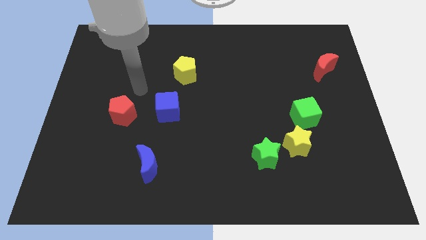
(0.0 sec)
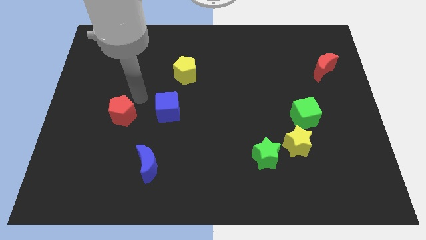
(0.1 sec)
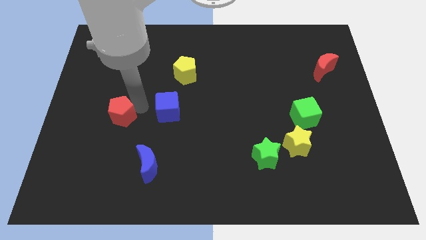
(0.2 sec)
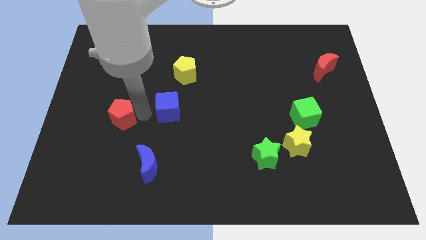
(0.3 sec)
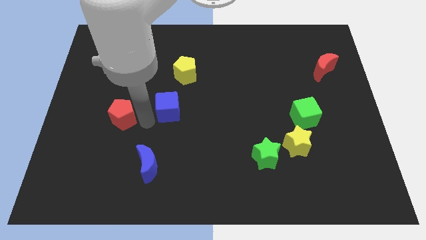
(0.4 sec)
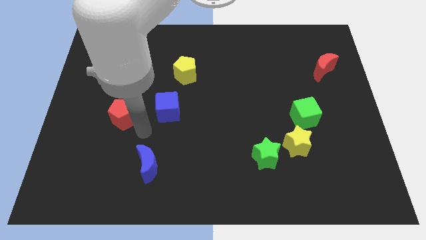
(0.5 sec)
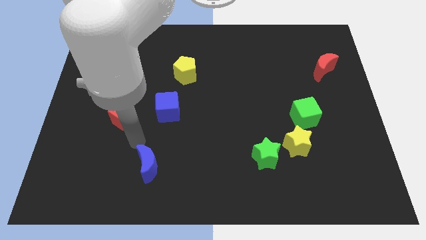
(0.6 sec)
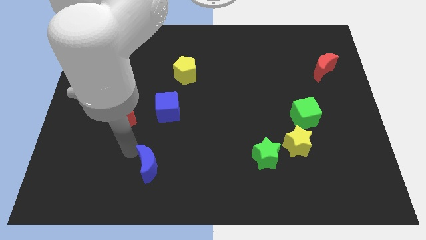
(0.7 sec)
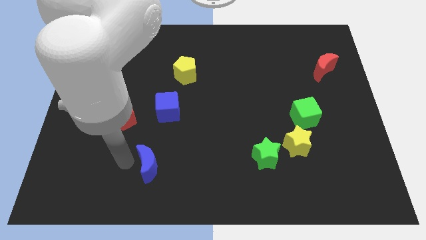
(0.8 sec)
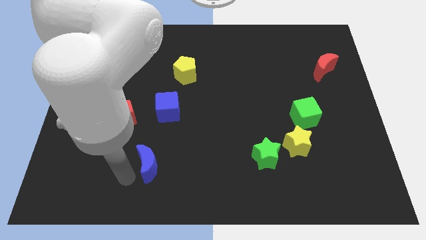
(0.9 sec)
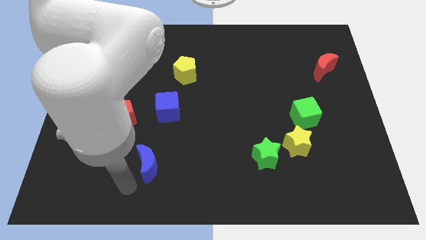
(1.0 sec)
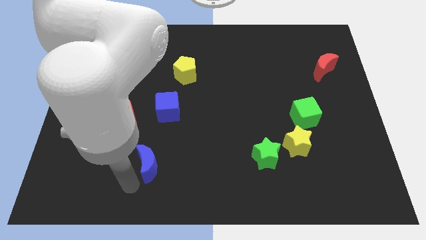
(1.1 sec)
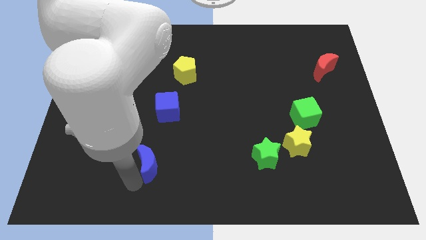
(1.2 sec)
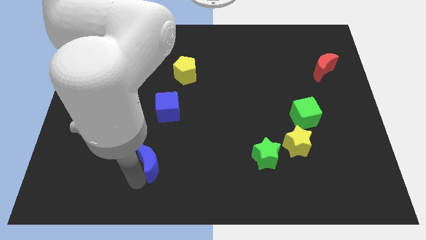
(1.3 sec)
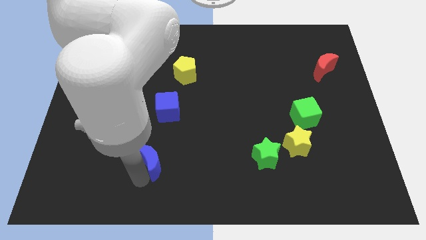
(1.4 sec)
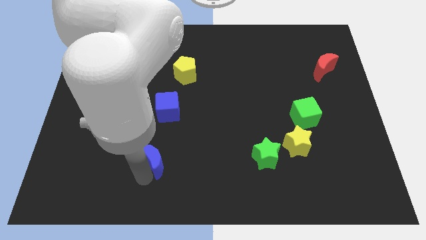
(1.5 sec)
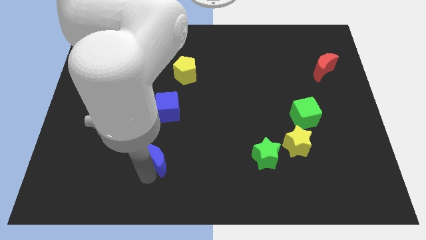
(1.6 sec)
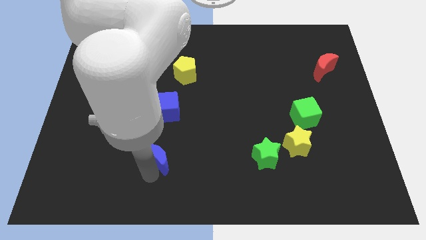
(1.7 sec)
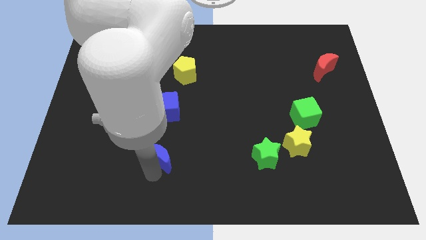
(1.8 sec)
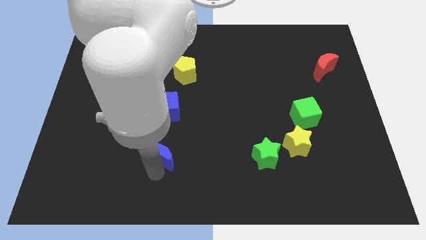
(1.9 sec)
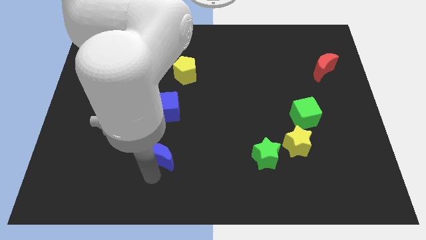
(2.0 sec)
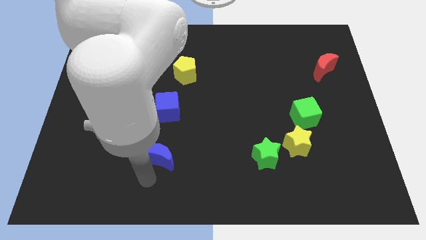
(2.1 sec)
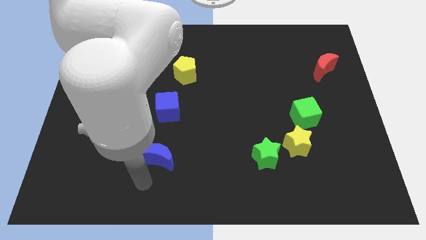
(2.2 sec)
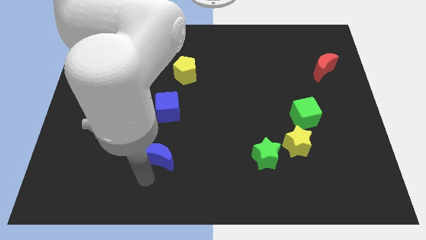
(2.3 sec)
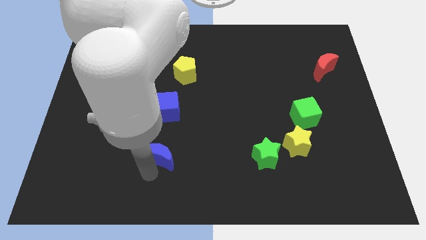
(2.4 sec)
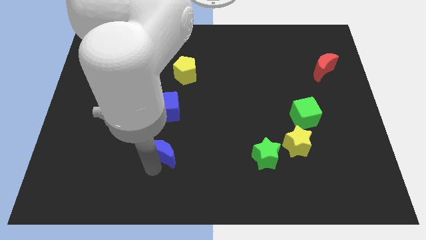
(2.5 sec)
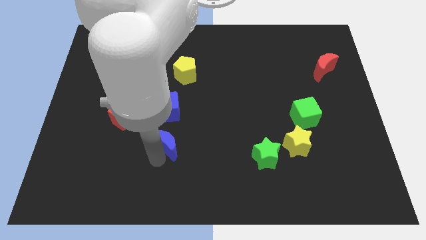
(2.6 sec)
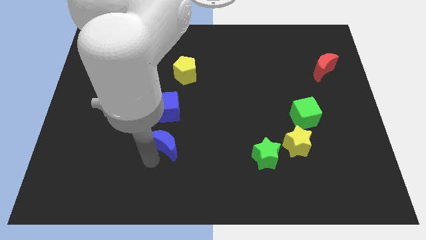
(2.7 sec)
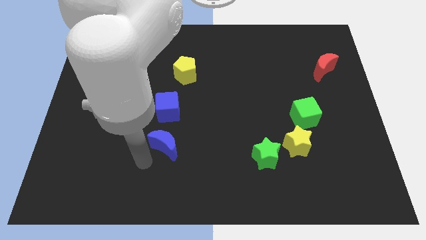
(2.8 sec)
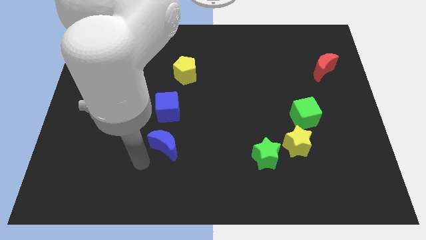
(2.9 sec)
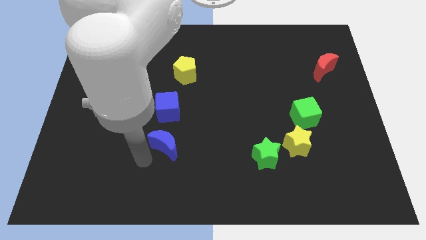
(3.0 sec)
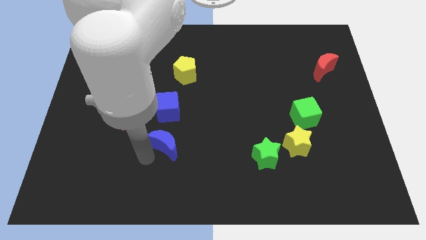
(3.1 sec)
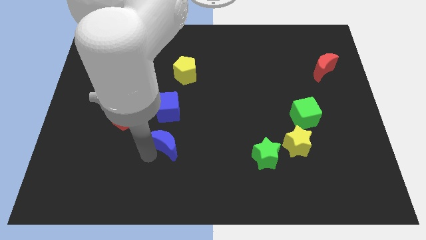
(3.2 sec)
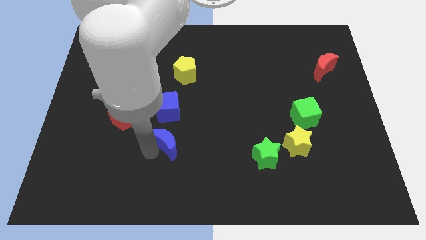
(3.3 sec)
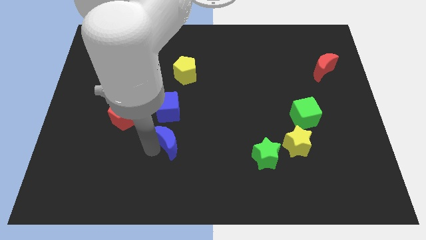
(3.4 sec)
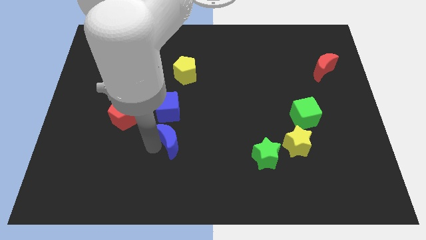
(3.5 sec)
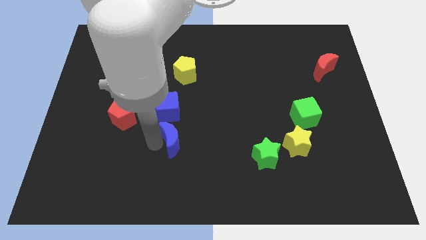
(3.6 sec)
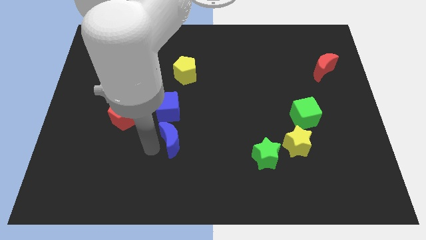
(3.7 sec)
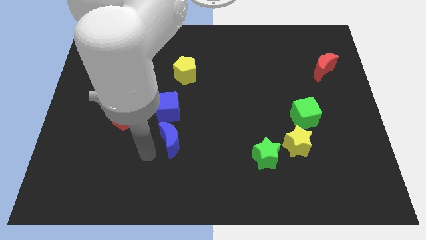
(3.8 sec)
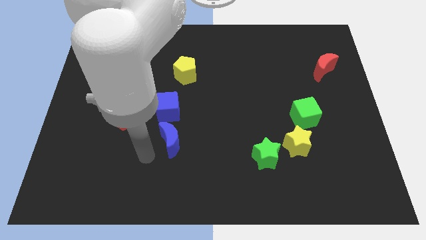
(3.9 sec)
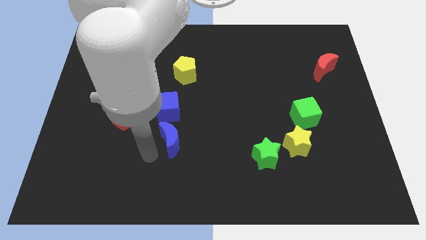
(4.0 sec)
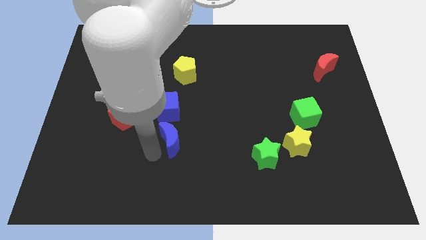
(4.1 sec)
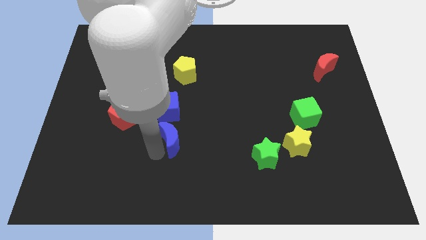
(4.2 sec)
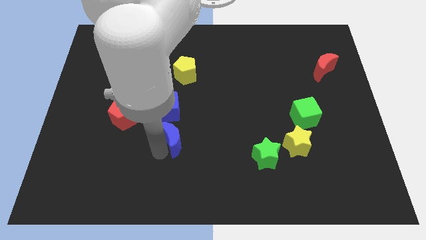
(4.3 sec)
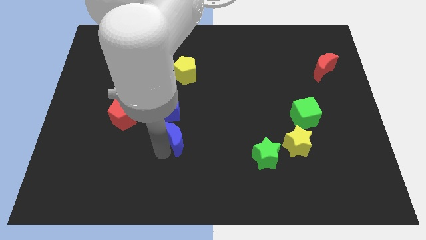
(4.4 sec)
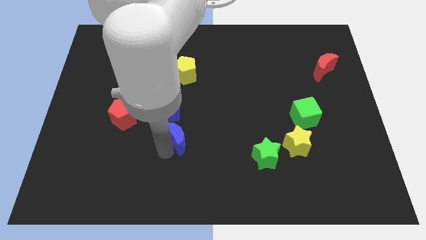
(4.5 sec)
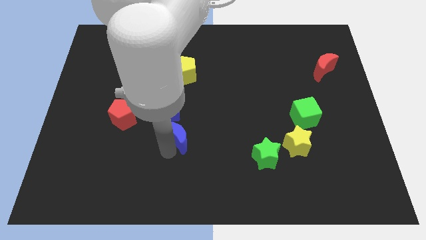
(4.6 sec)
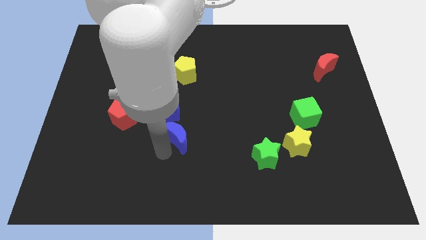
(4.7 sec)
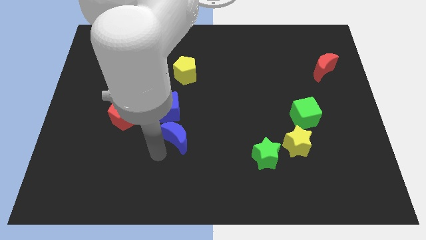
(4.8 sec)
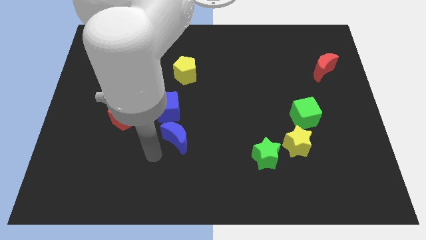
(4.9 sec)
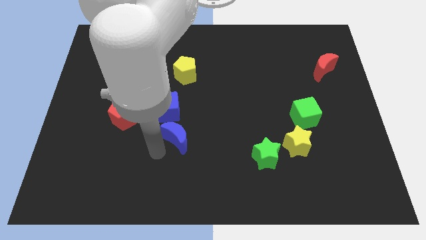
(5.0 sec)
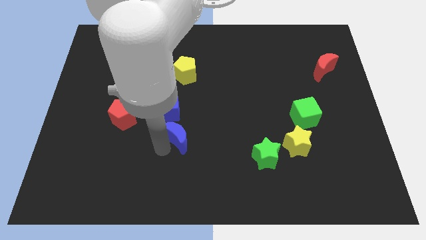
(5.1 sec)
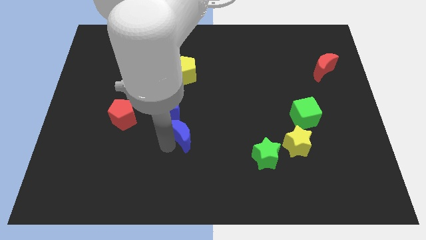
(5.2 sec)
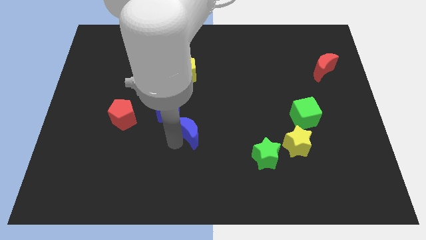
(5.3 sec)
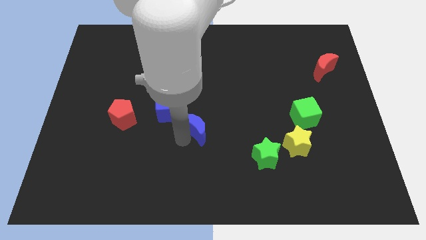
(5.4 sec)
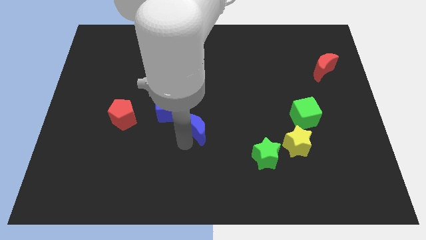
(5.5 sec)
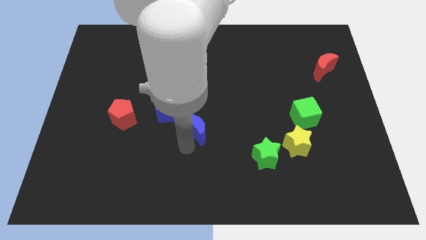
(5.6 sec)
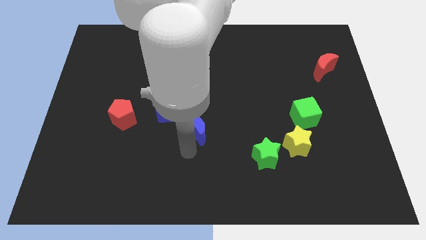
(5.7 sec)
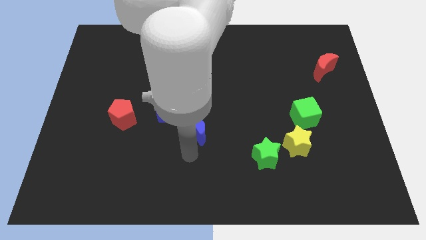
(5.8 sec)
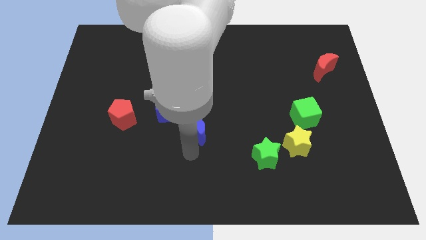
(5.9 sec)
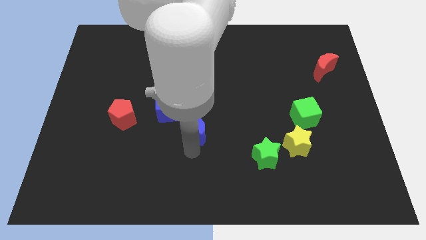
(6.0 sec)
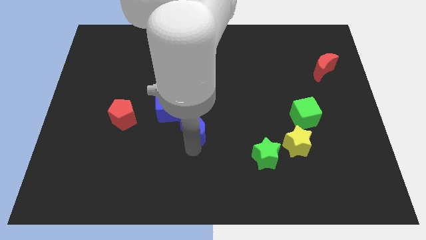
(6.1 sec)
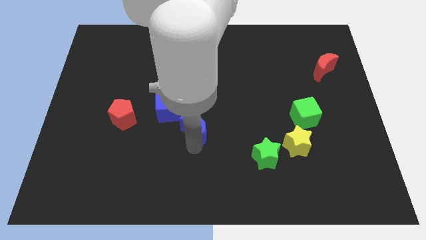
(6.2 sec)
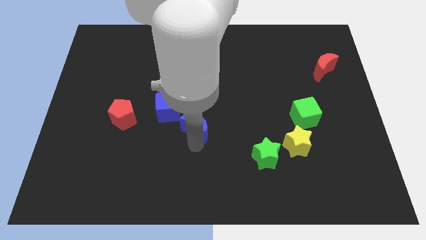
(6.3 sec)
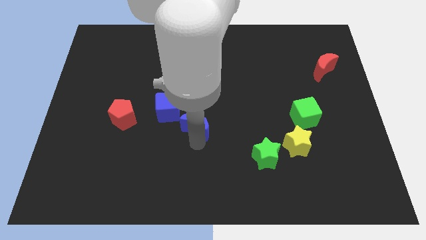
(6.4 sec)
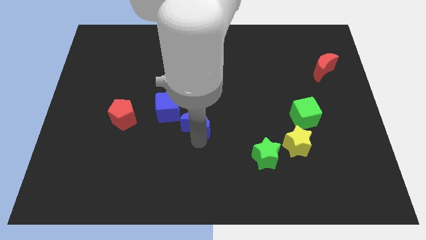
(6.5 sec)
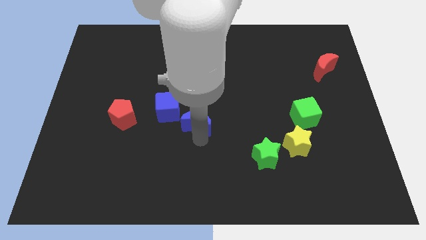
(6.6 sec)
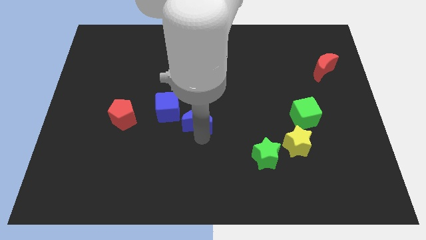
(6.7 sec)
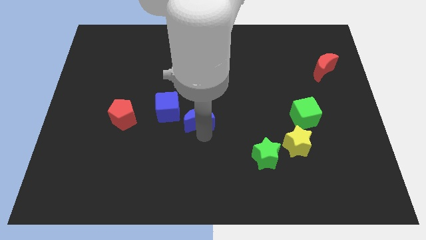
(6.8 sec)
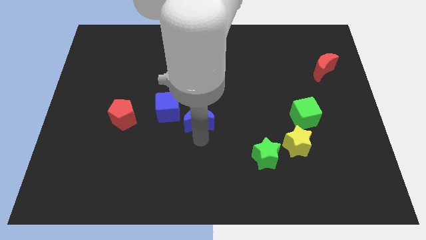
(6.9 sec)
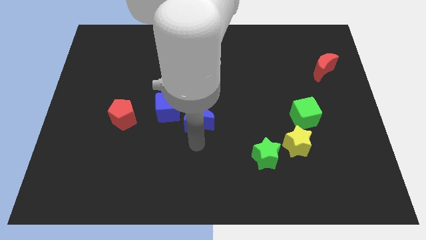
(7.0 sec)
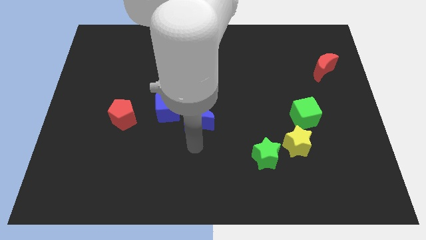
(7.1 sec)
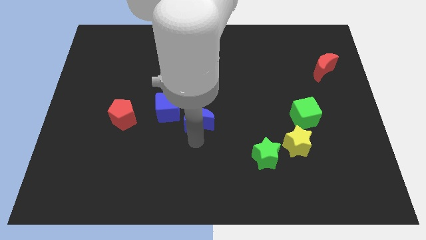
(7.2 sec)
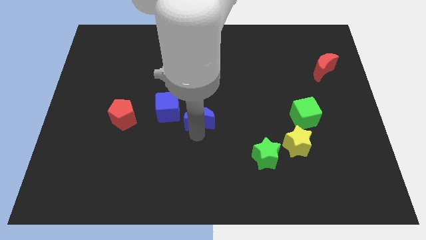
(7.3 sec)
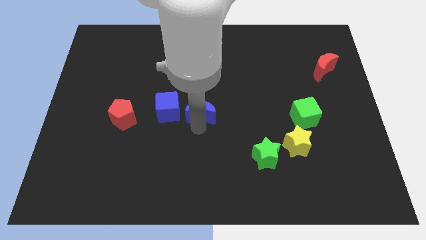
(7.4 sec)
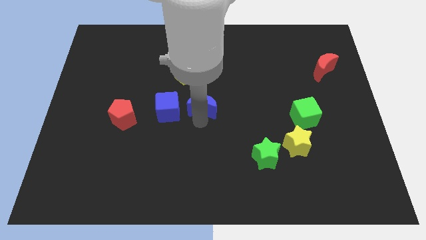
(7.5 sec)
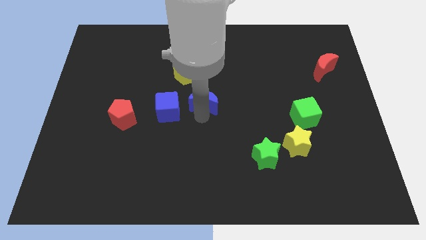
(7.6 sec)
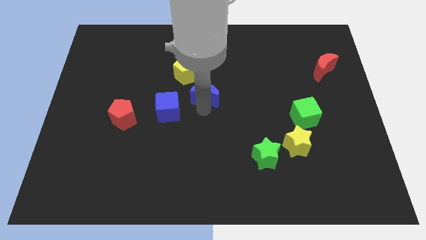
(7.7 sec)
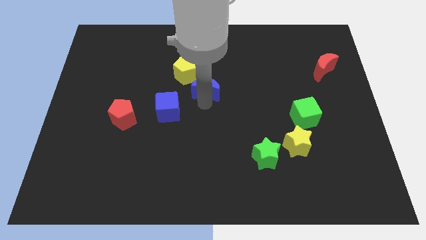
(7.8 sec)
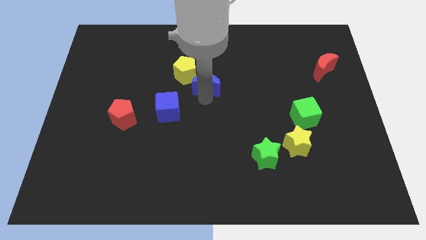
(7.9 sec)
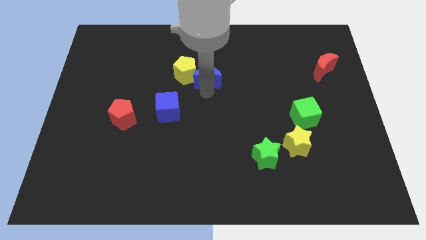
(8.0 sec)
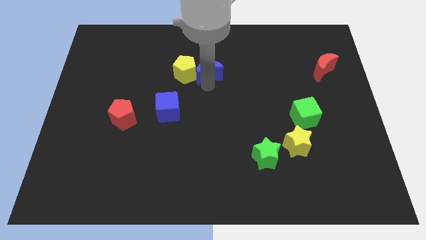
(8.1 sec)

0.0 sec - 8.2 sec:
push the blue moon diagonally up and to the right of the yellow pentagon
